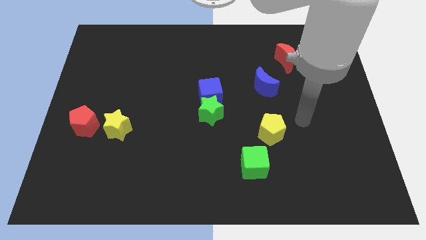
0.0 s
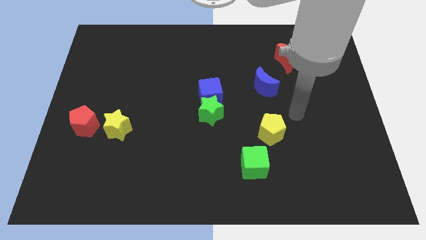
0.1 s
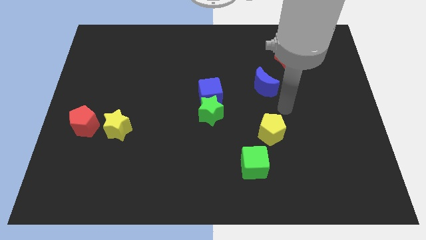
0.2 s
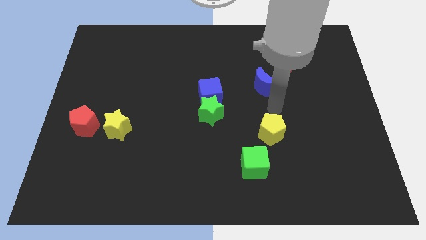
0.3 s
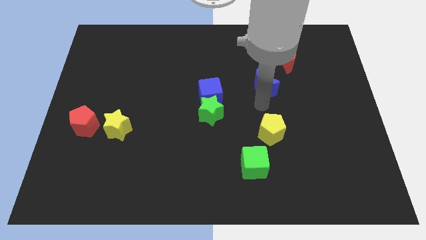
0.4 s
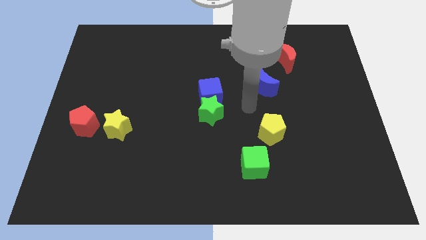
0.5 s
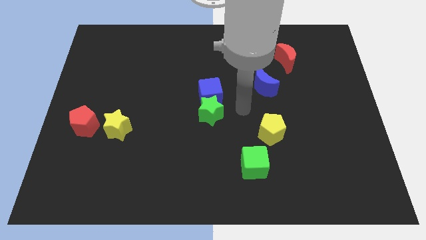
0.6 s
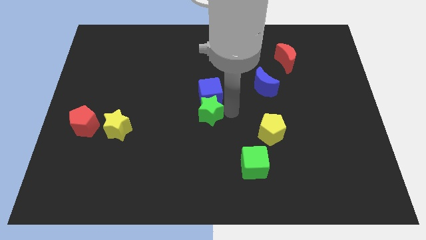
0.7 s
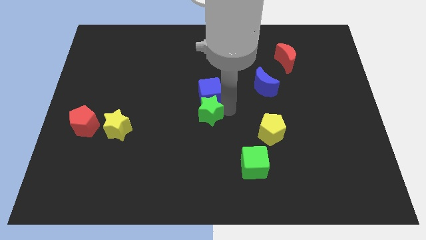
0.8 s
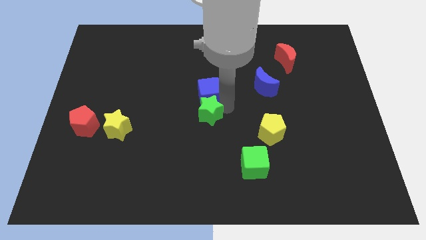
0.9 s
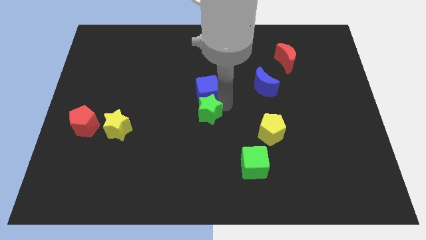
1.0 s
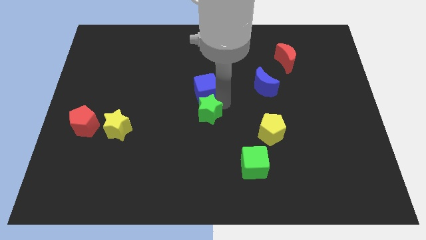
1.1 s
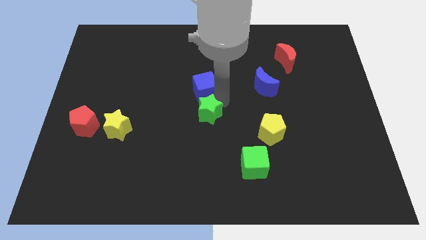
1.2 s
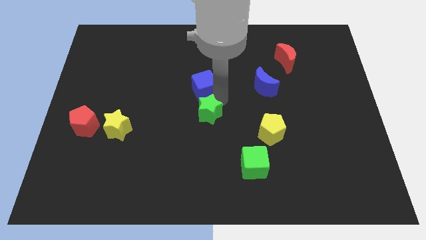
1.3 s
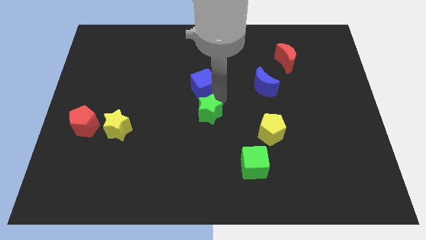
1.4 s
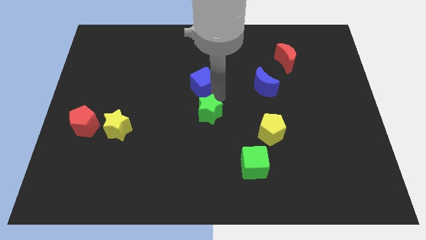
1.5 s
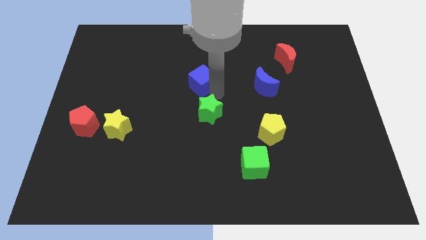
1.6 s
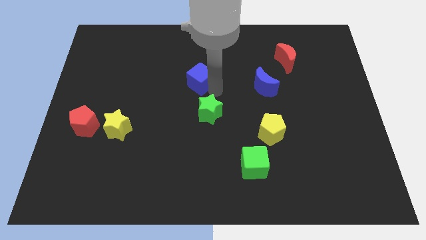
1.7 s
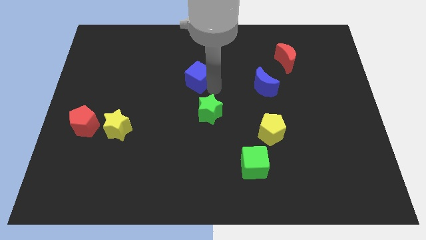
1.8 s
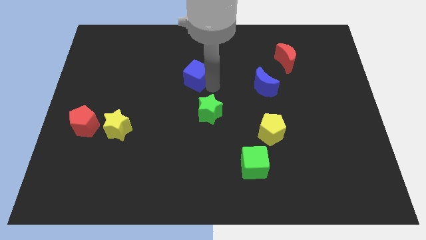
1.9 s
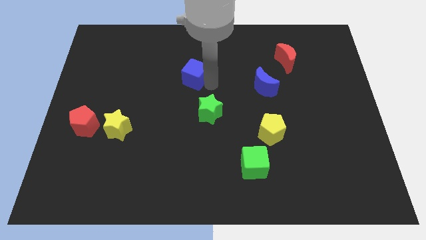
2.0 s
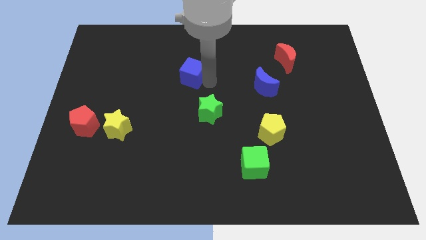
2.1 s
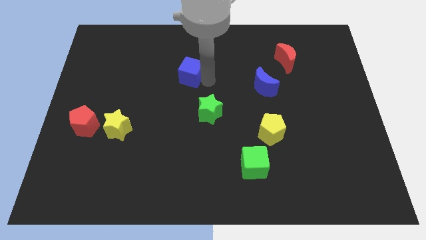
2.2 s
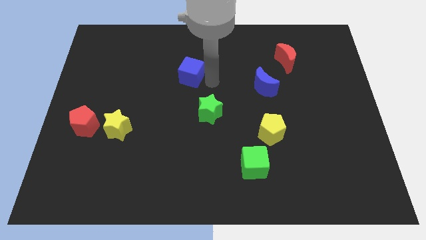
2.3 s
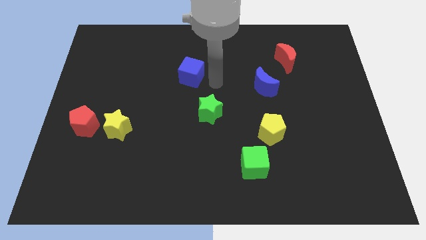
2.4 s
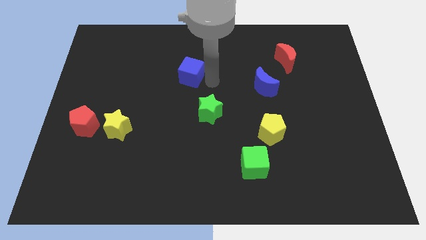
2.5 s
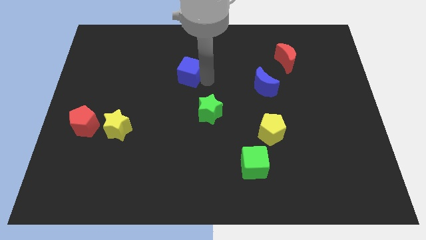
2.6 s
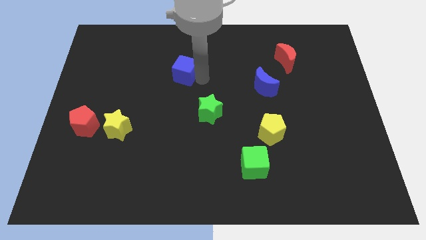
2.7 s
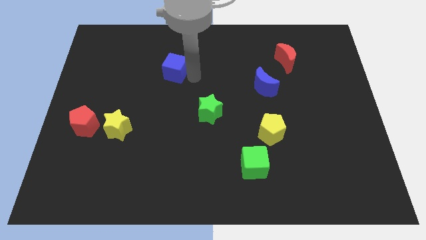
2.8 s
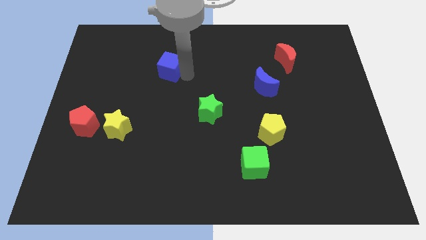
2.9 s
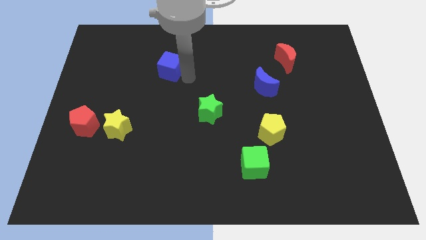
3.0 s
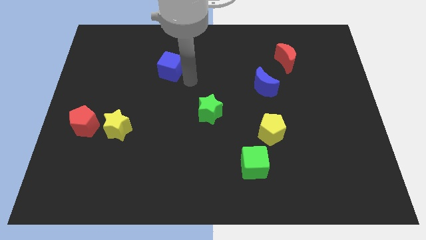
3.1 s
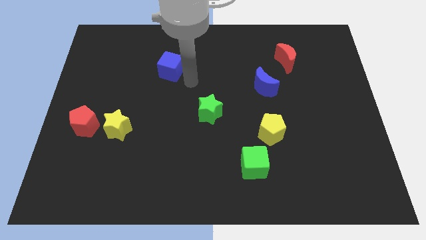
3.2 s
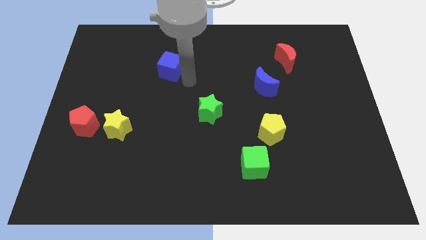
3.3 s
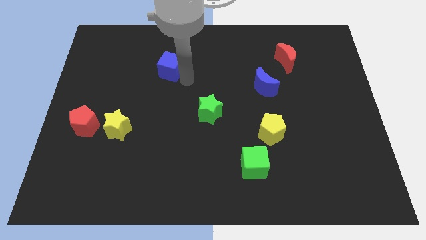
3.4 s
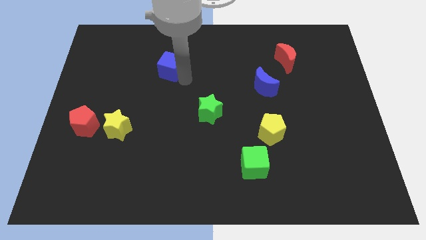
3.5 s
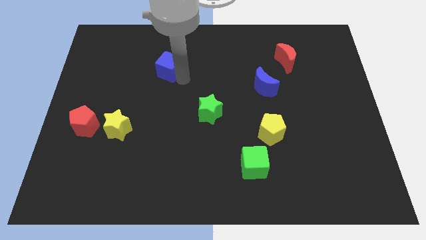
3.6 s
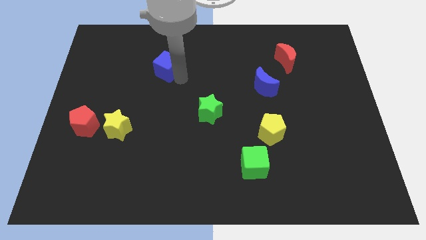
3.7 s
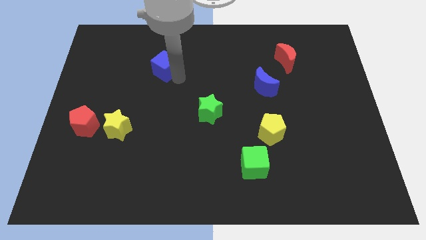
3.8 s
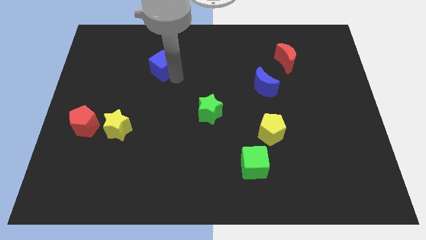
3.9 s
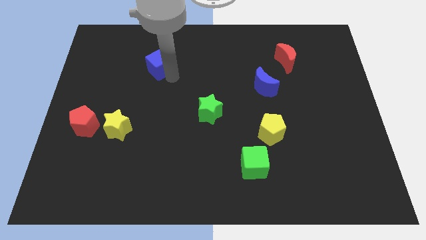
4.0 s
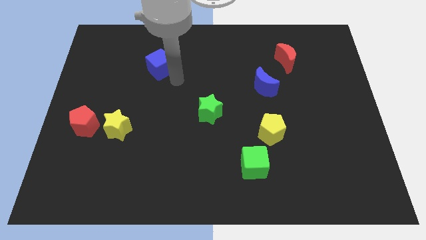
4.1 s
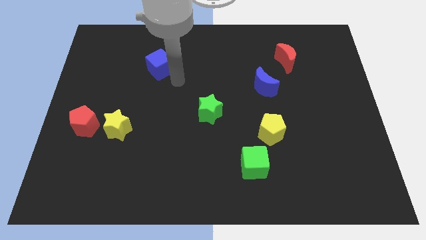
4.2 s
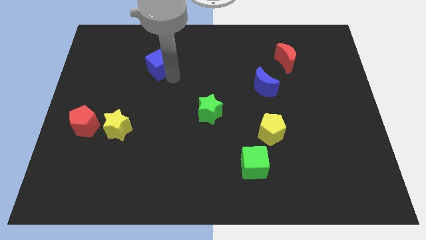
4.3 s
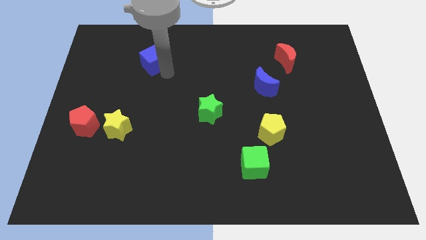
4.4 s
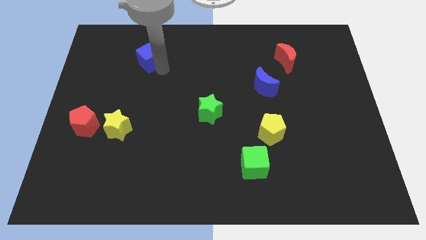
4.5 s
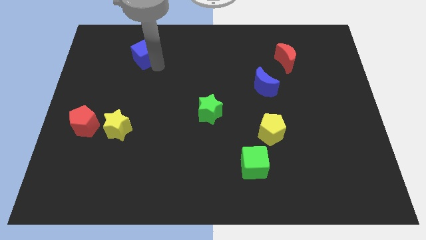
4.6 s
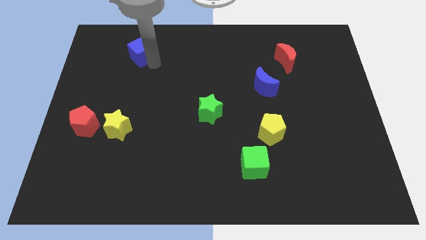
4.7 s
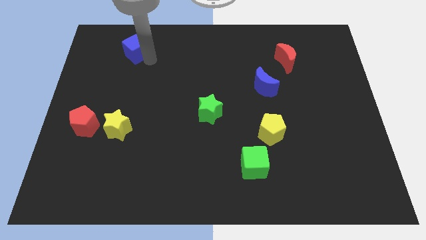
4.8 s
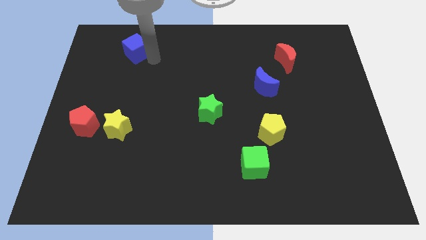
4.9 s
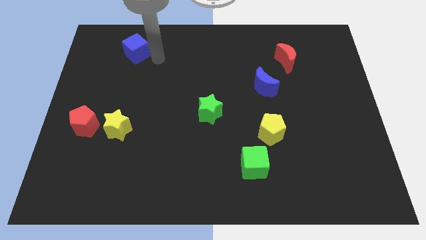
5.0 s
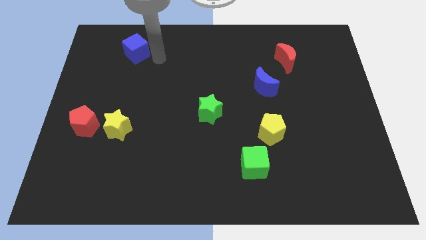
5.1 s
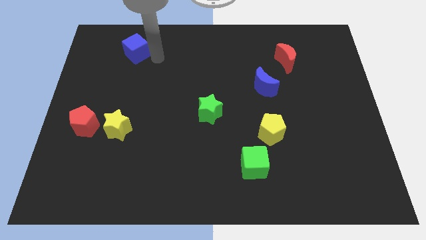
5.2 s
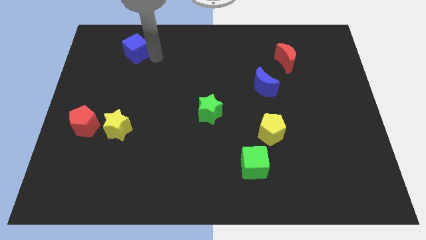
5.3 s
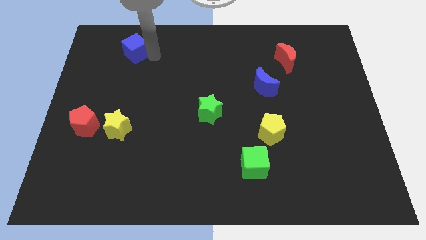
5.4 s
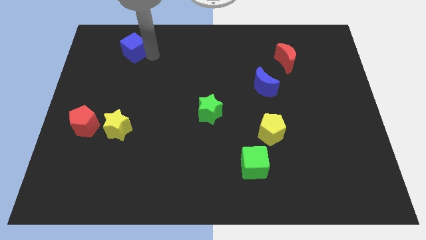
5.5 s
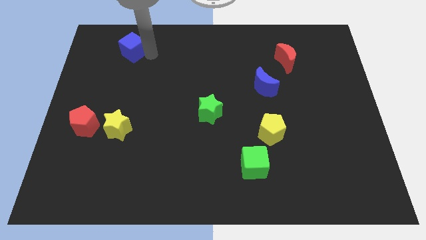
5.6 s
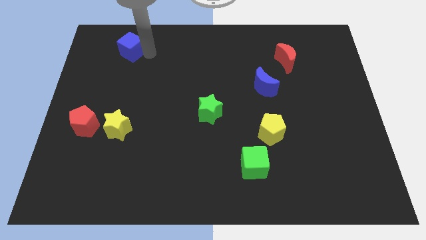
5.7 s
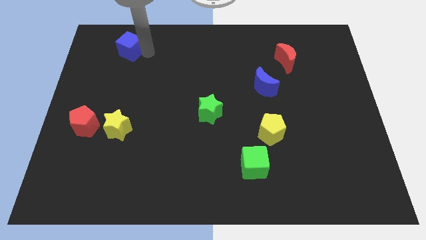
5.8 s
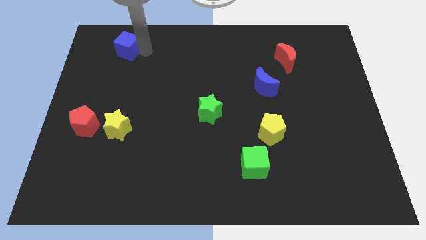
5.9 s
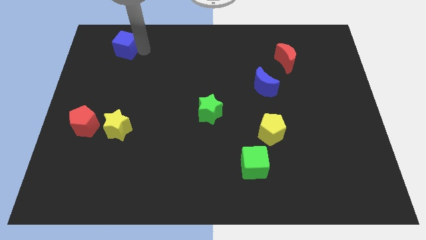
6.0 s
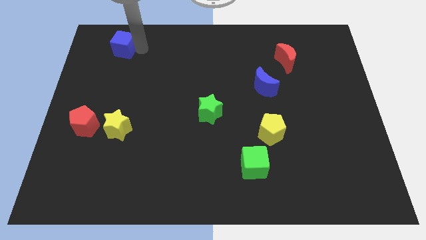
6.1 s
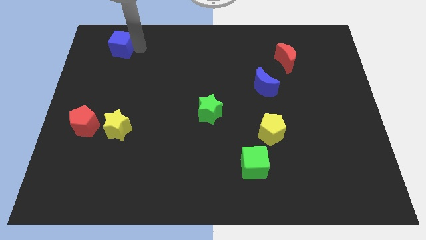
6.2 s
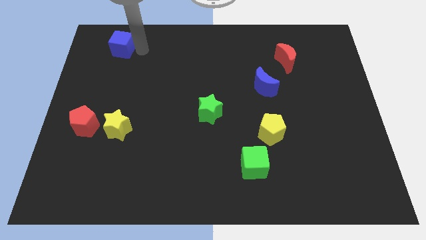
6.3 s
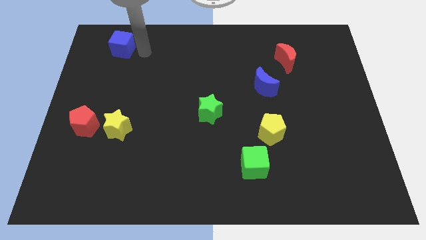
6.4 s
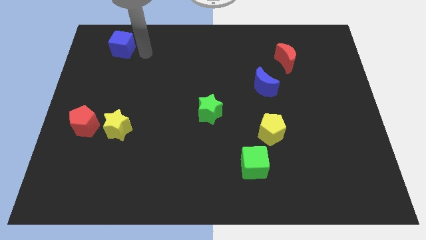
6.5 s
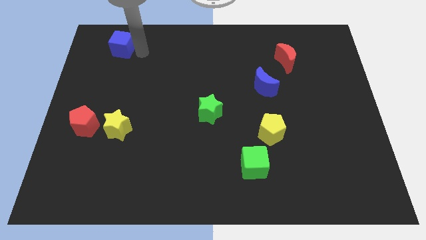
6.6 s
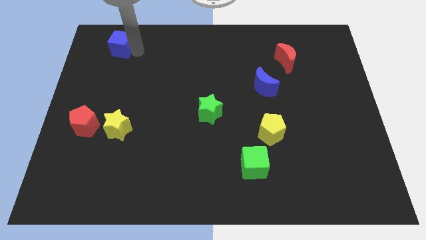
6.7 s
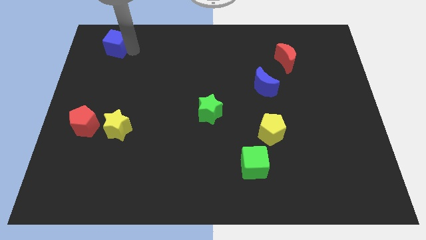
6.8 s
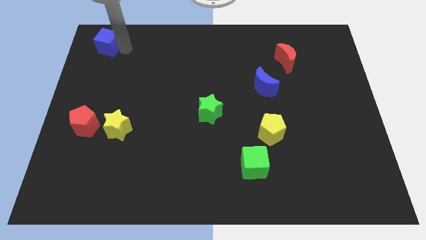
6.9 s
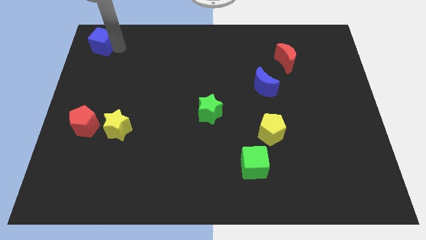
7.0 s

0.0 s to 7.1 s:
move the blue cube to the top left

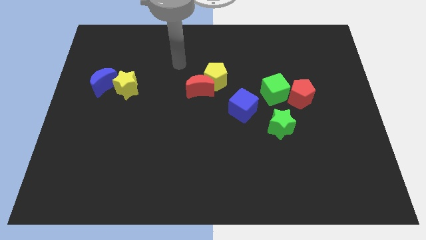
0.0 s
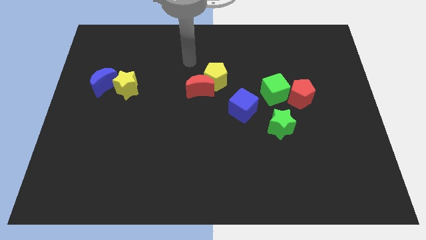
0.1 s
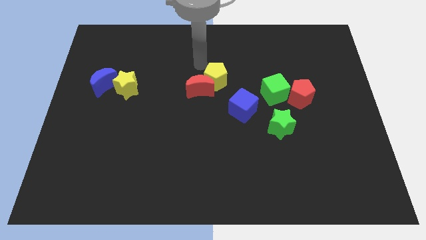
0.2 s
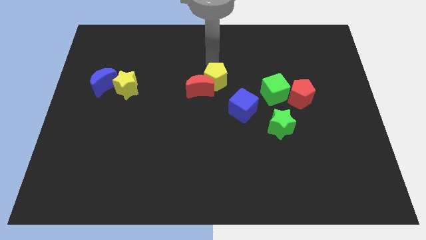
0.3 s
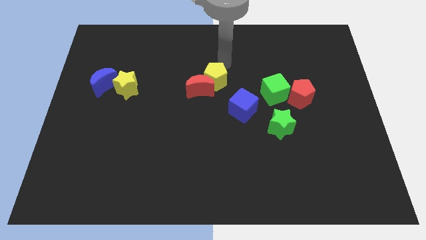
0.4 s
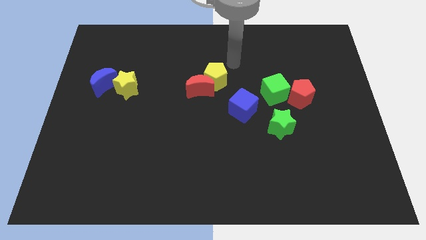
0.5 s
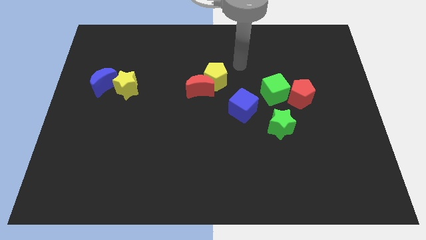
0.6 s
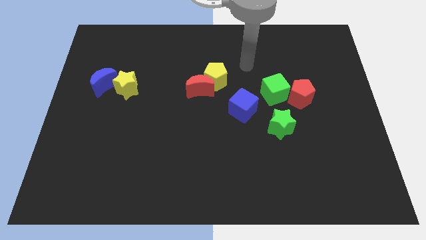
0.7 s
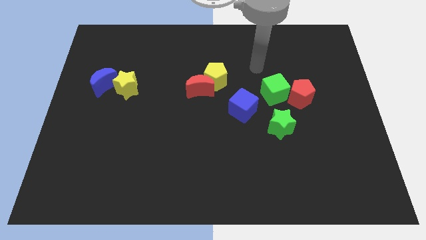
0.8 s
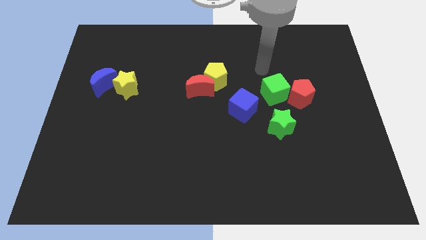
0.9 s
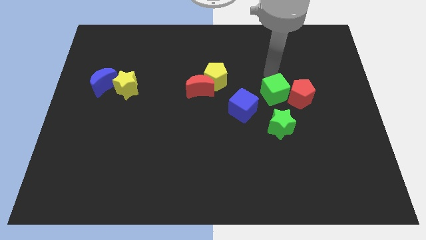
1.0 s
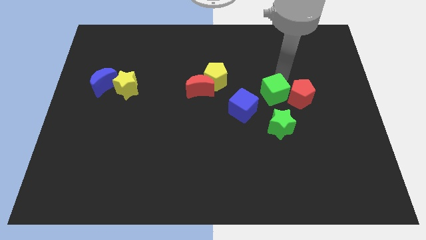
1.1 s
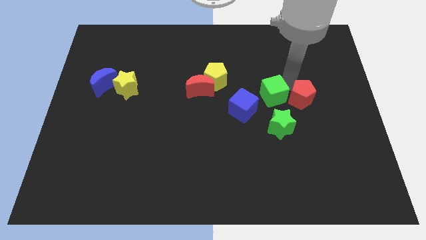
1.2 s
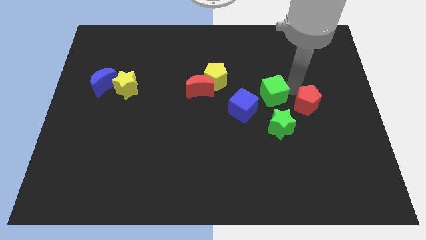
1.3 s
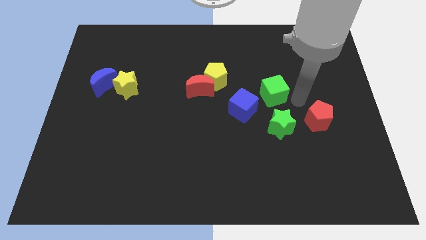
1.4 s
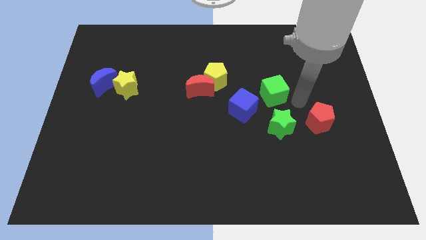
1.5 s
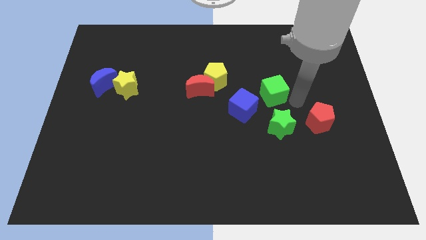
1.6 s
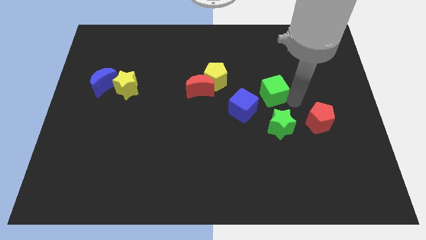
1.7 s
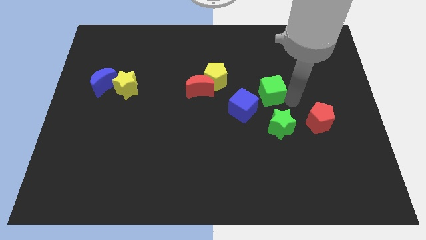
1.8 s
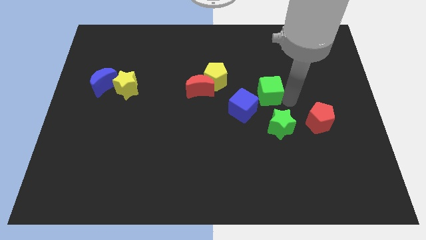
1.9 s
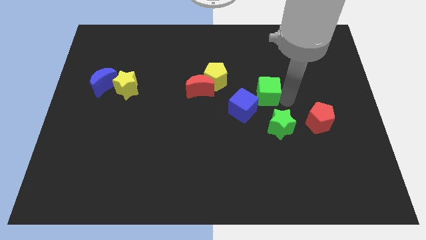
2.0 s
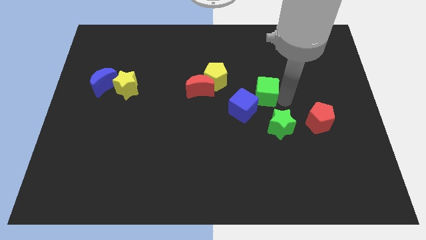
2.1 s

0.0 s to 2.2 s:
push the green cube to the middle of the board
